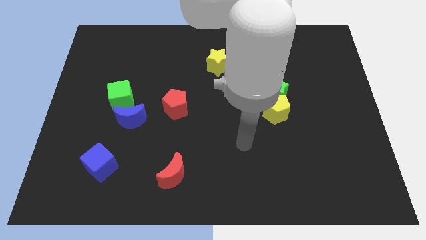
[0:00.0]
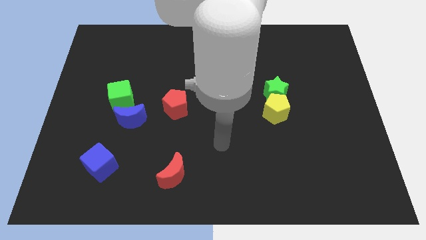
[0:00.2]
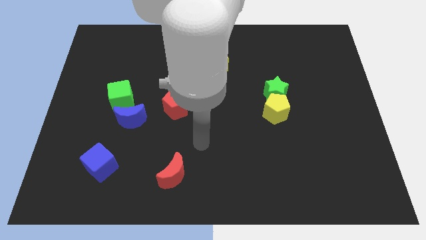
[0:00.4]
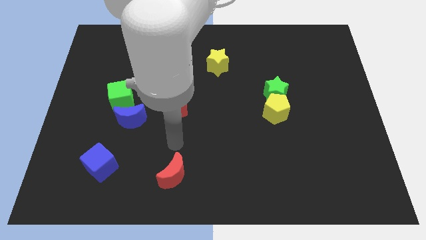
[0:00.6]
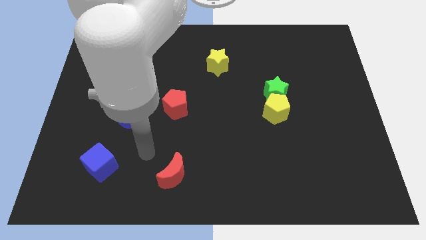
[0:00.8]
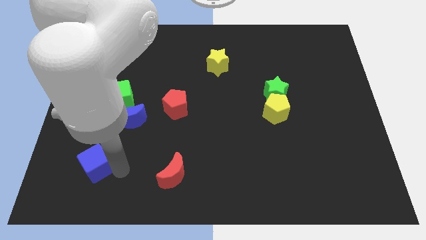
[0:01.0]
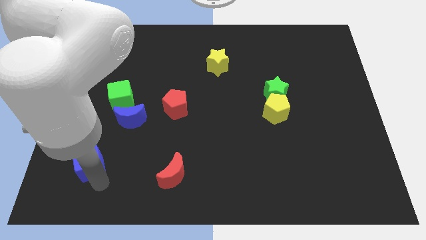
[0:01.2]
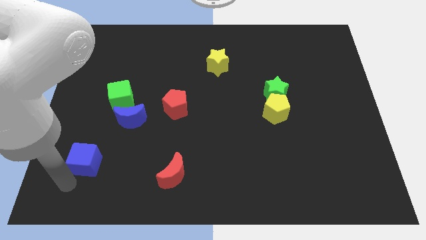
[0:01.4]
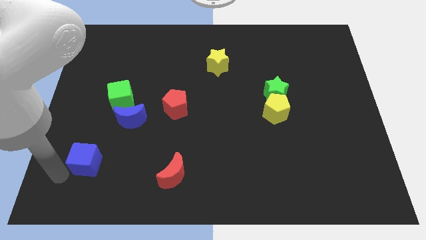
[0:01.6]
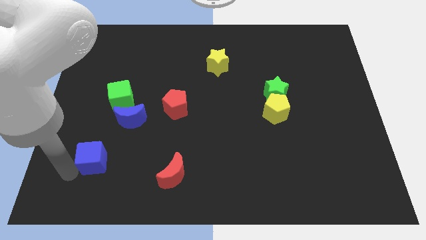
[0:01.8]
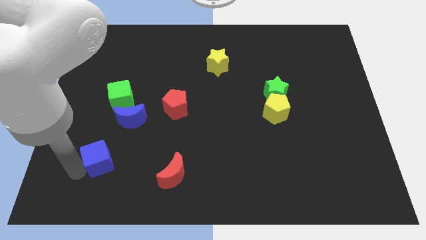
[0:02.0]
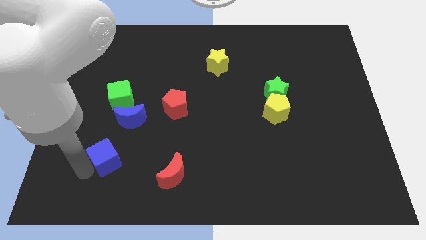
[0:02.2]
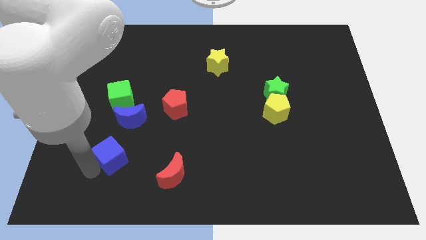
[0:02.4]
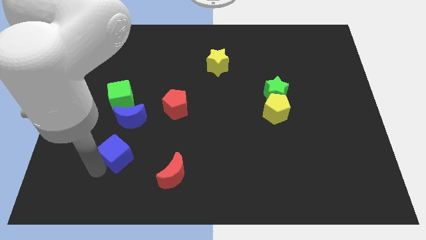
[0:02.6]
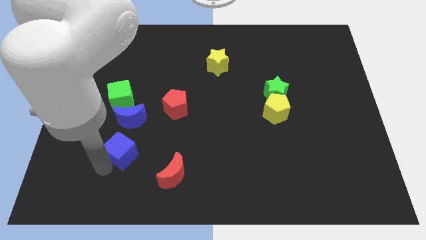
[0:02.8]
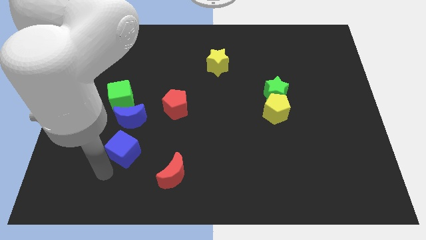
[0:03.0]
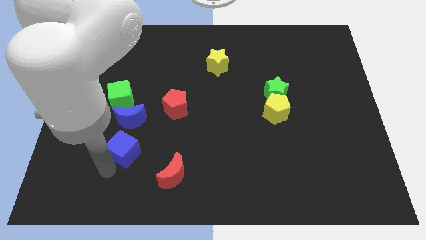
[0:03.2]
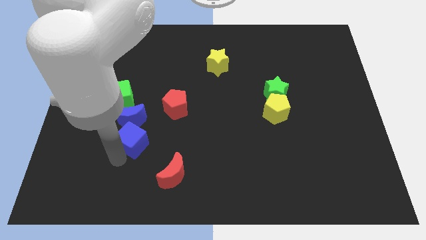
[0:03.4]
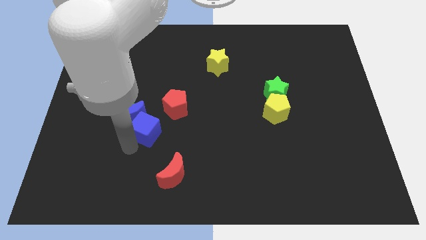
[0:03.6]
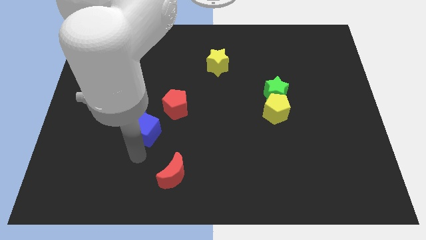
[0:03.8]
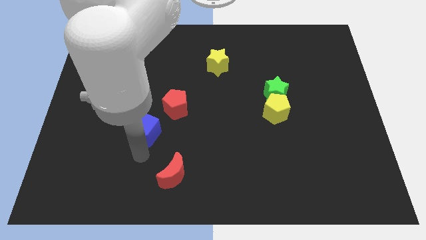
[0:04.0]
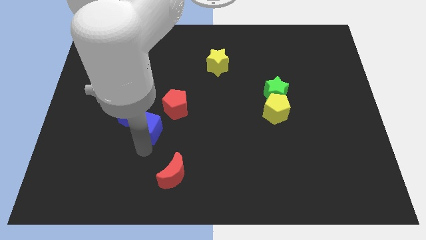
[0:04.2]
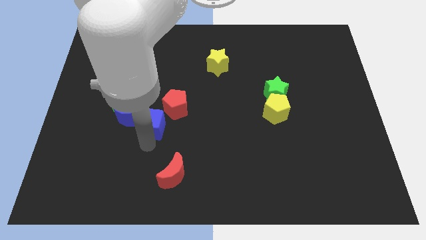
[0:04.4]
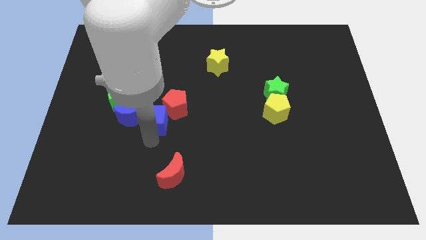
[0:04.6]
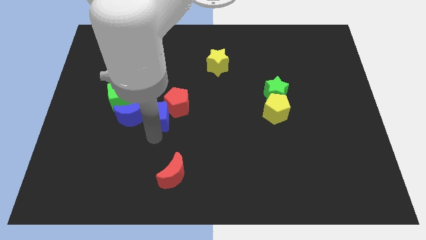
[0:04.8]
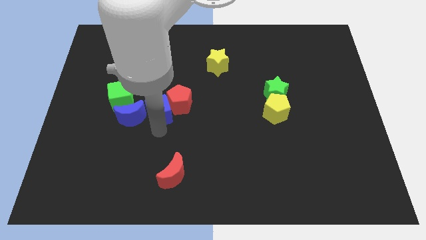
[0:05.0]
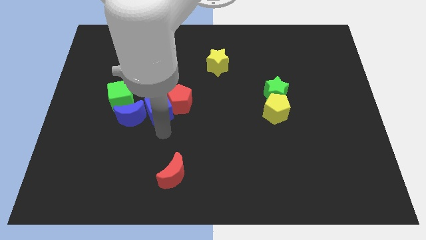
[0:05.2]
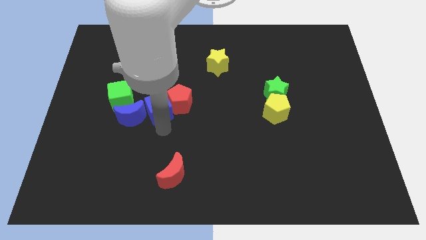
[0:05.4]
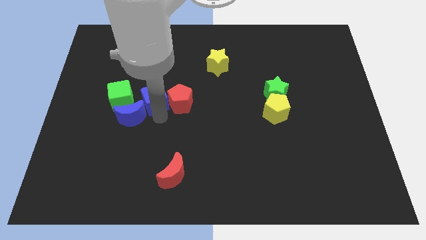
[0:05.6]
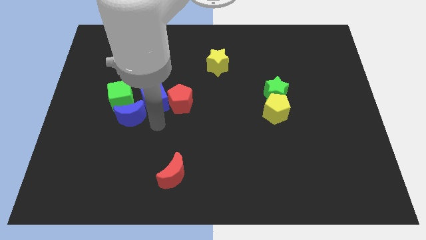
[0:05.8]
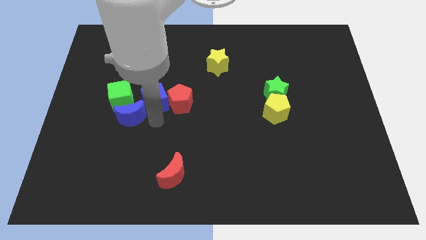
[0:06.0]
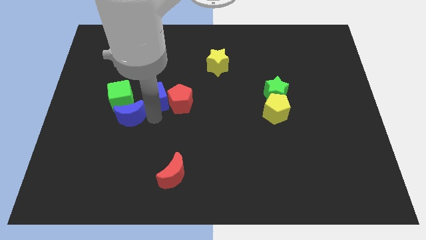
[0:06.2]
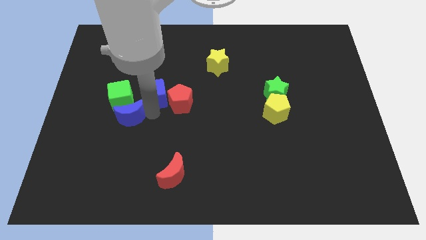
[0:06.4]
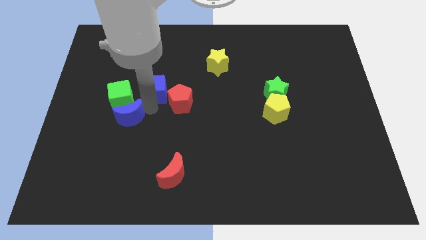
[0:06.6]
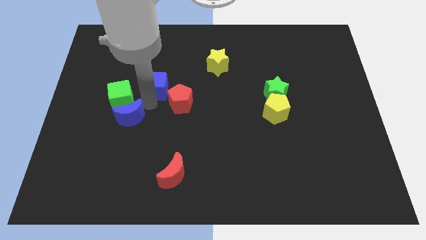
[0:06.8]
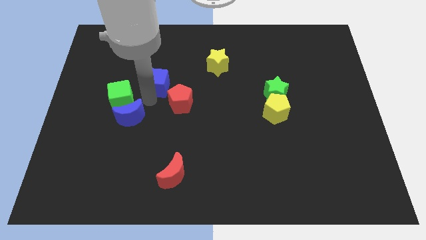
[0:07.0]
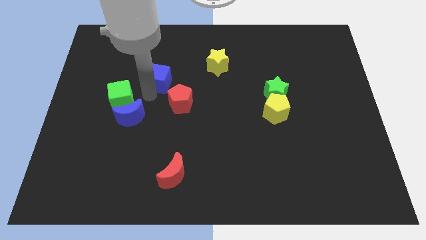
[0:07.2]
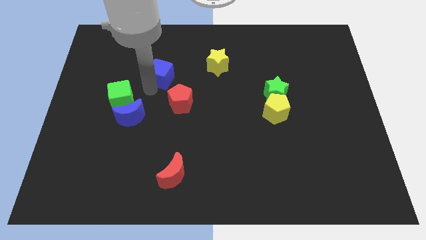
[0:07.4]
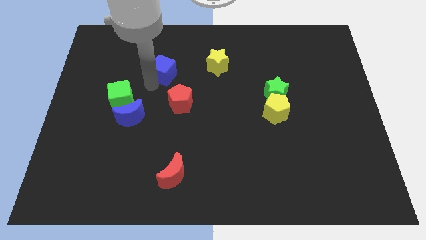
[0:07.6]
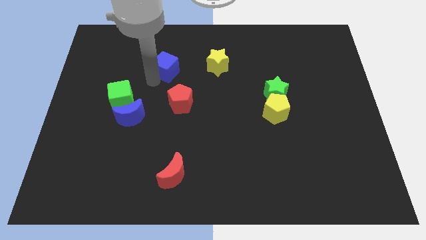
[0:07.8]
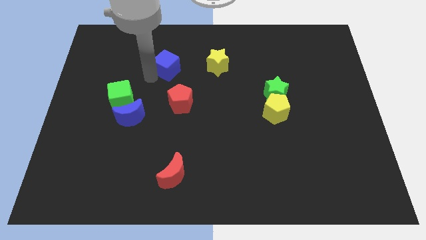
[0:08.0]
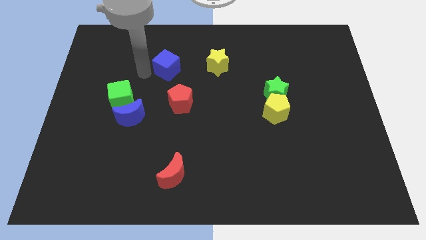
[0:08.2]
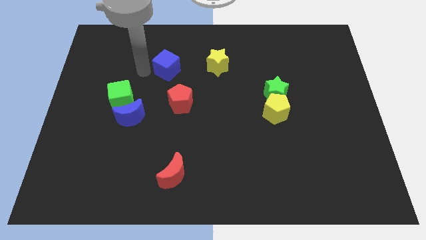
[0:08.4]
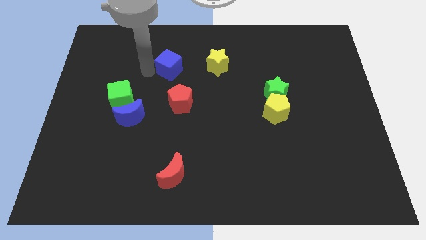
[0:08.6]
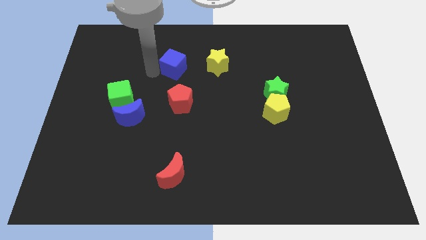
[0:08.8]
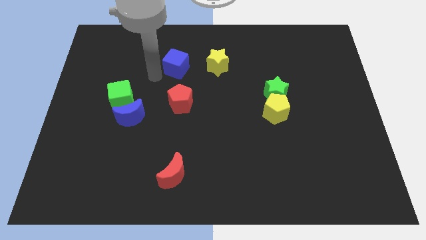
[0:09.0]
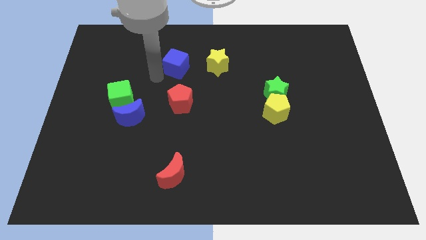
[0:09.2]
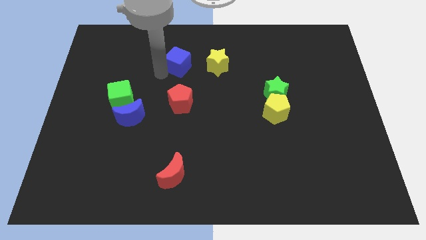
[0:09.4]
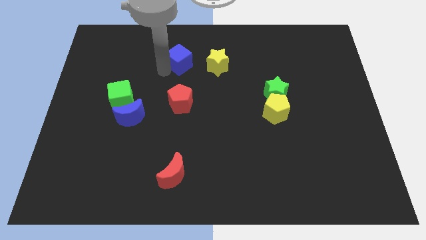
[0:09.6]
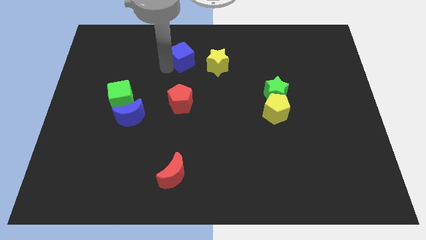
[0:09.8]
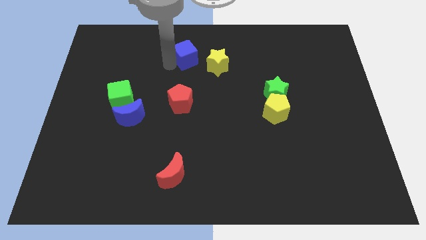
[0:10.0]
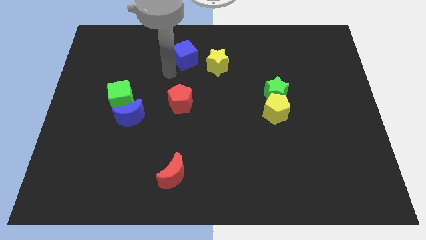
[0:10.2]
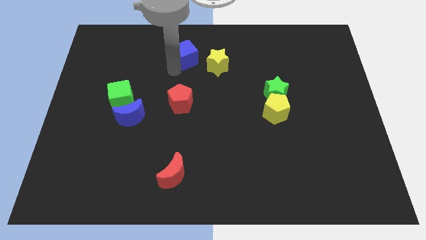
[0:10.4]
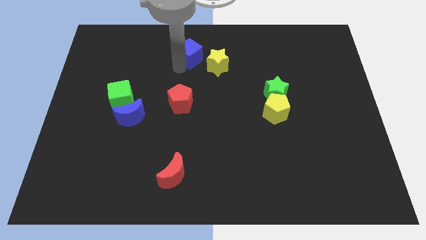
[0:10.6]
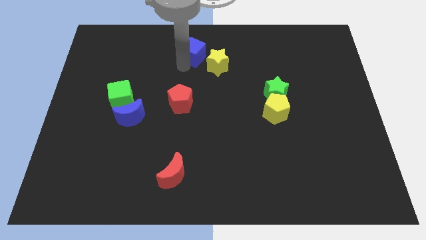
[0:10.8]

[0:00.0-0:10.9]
put the blue cube to the towards your base

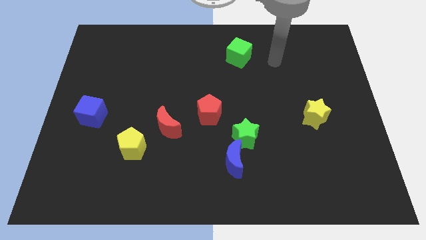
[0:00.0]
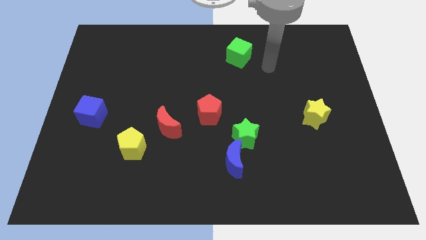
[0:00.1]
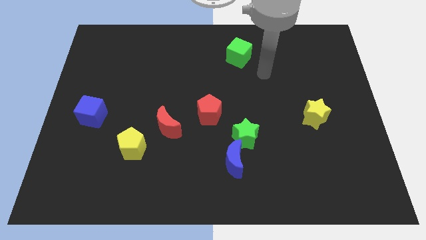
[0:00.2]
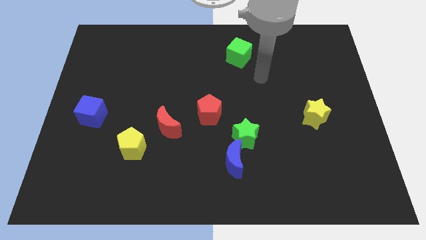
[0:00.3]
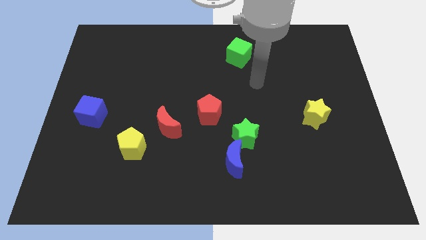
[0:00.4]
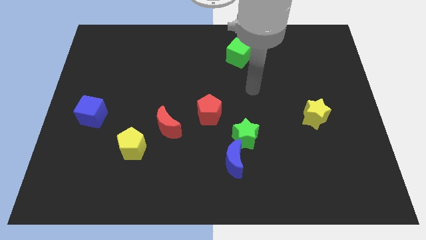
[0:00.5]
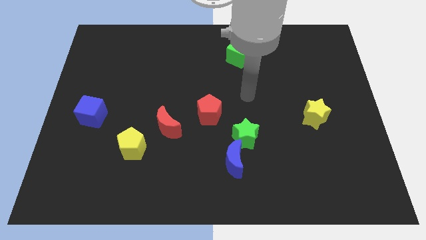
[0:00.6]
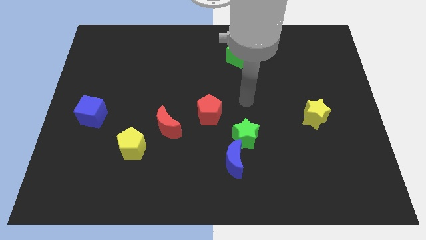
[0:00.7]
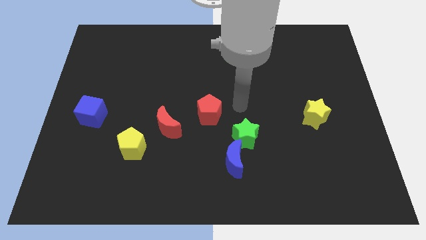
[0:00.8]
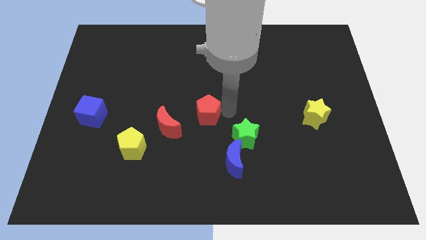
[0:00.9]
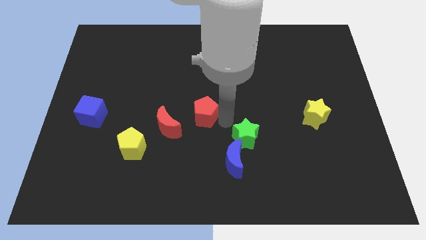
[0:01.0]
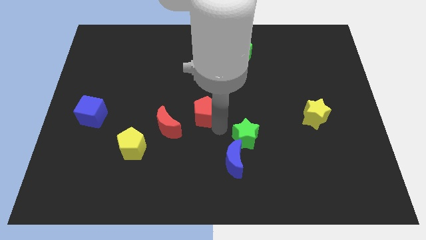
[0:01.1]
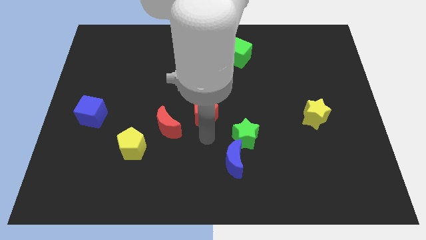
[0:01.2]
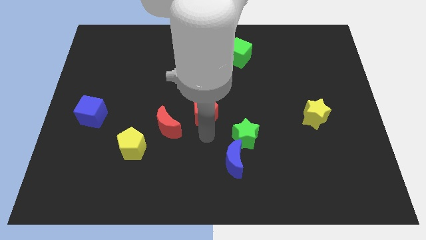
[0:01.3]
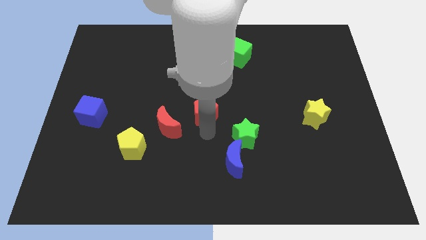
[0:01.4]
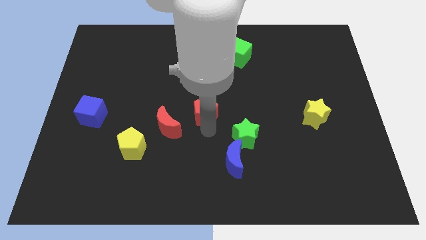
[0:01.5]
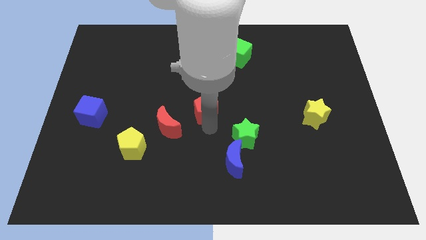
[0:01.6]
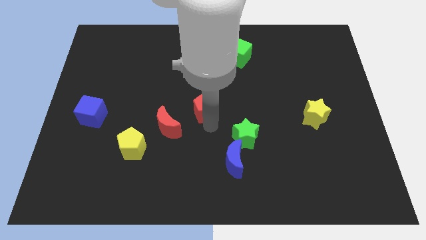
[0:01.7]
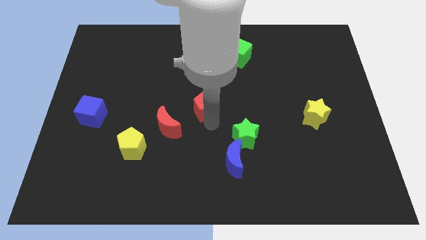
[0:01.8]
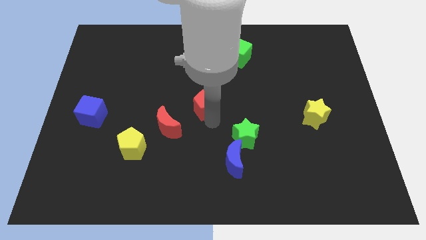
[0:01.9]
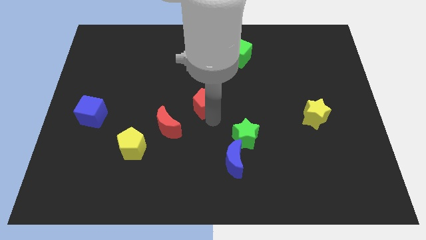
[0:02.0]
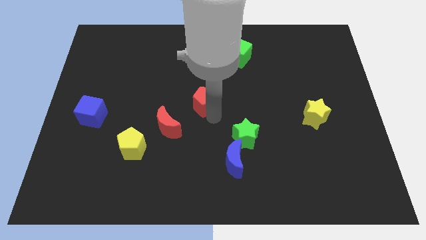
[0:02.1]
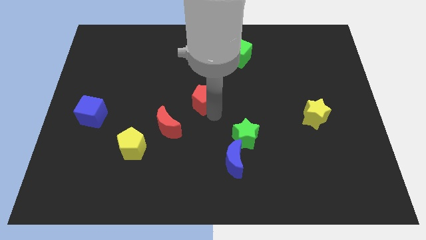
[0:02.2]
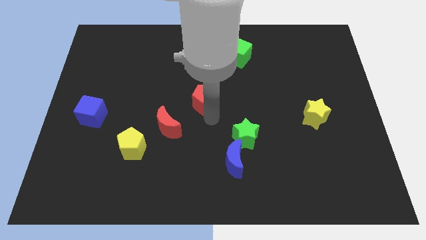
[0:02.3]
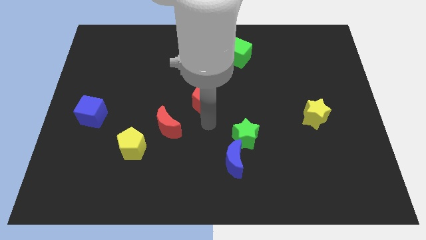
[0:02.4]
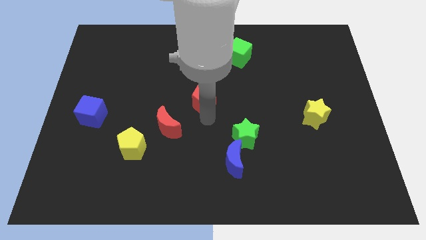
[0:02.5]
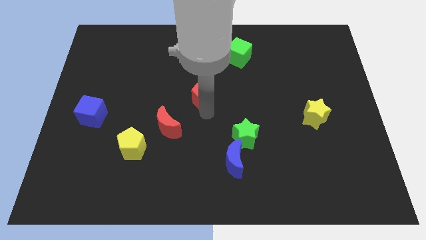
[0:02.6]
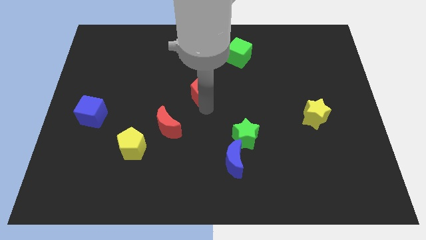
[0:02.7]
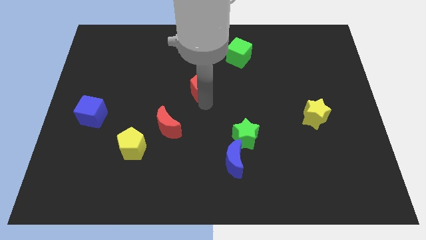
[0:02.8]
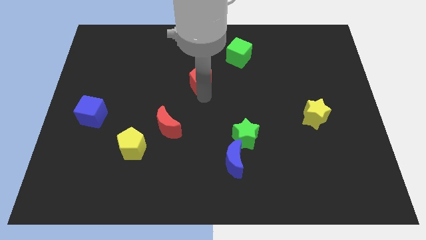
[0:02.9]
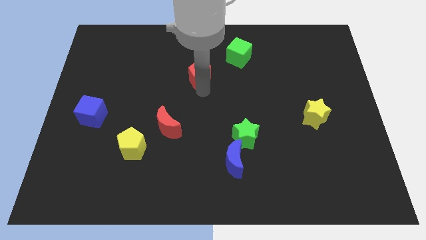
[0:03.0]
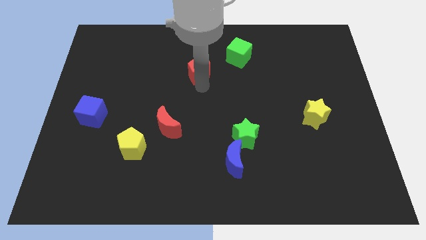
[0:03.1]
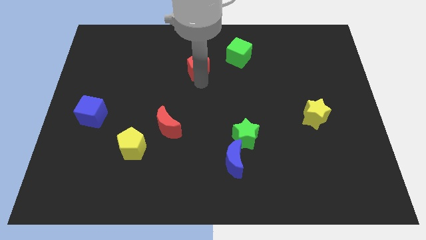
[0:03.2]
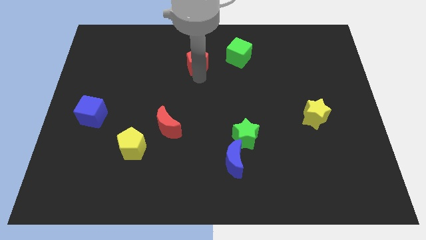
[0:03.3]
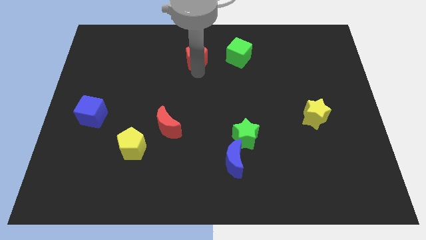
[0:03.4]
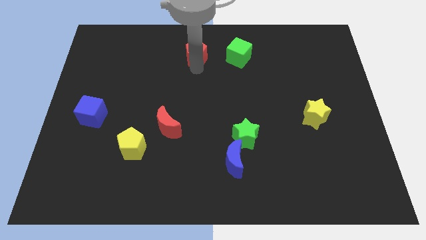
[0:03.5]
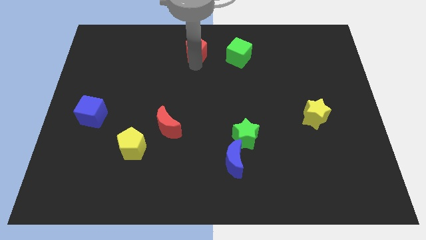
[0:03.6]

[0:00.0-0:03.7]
slide the red pentagon to the top side
